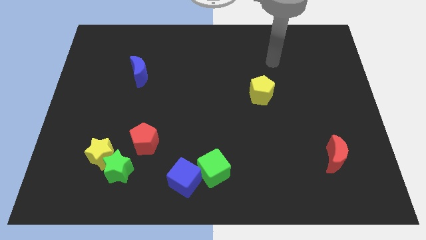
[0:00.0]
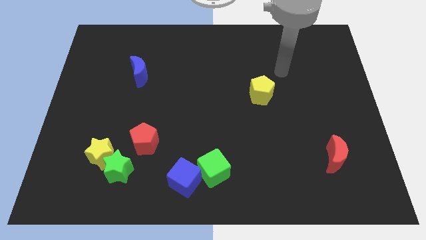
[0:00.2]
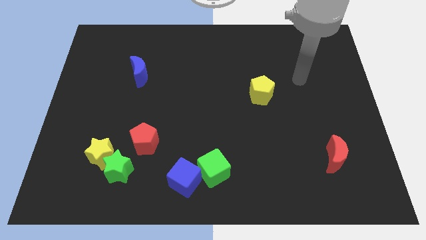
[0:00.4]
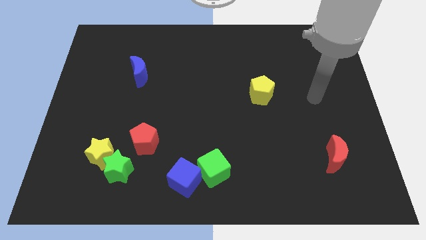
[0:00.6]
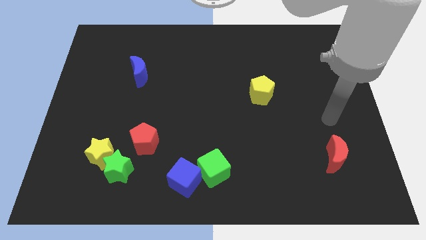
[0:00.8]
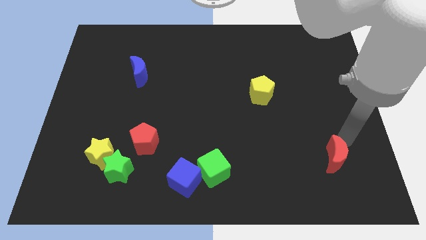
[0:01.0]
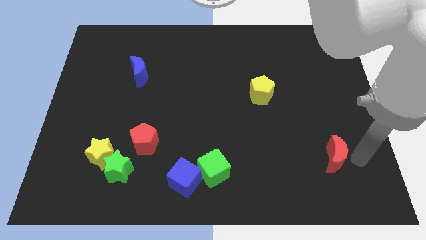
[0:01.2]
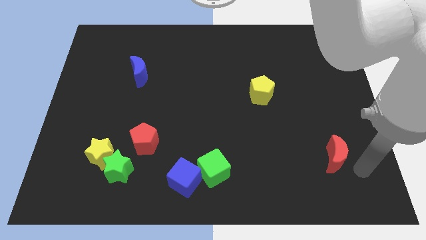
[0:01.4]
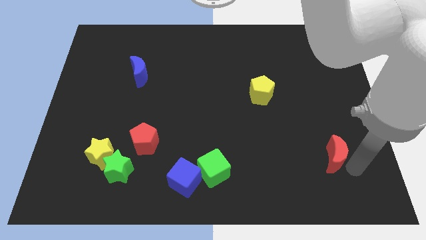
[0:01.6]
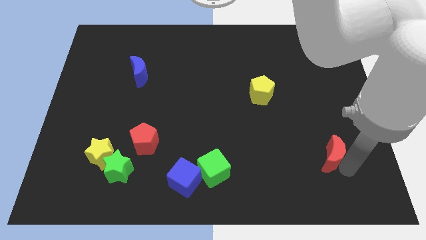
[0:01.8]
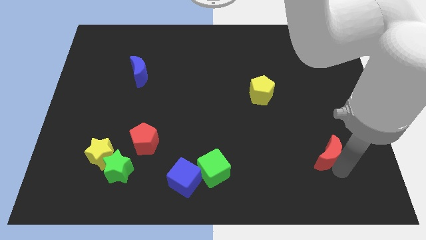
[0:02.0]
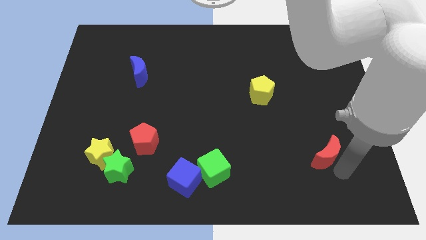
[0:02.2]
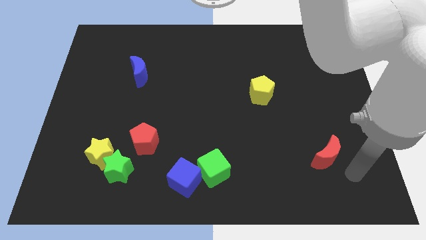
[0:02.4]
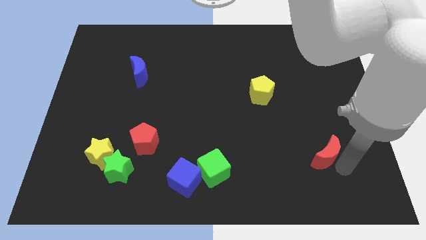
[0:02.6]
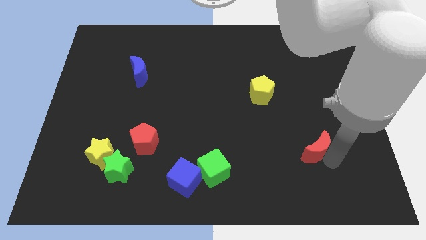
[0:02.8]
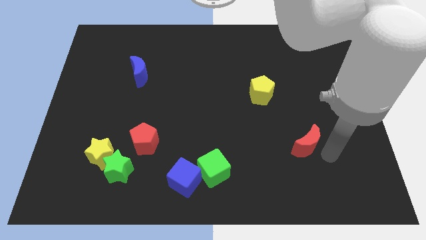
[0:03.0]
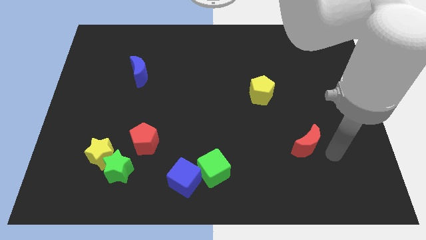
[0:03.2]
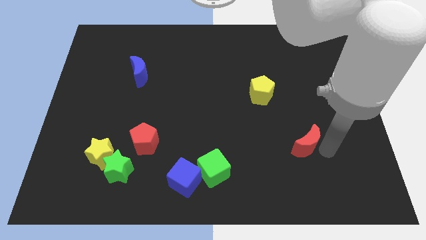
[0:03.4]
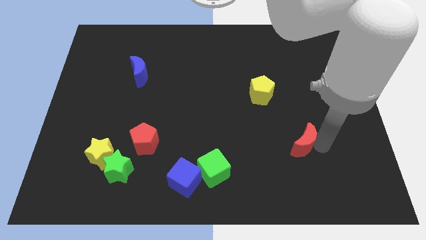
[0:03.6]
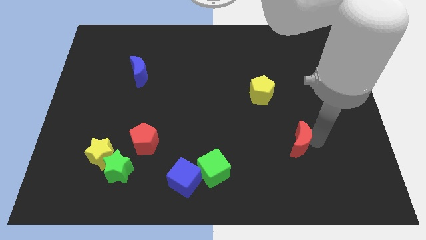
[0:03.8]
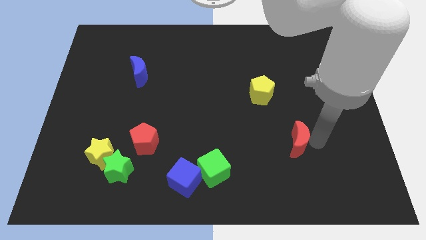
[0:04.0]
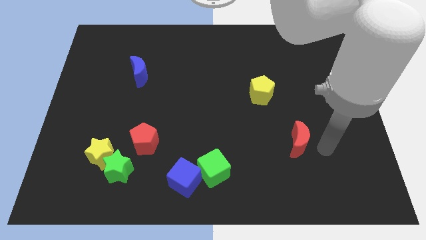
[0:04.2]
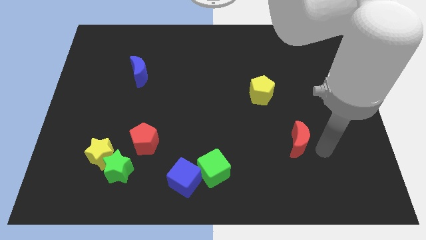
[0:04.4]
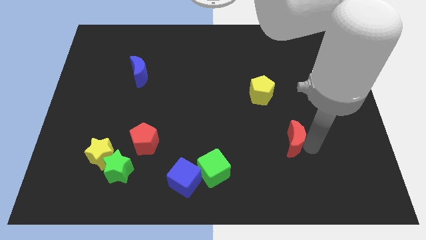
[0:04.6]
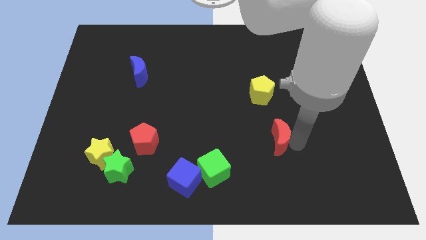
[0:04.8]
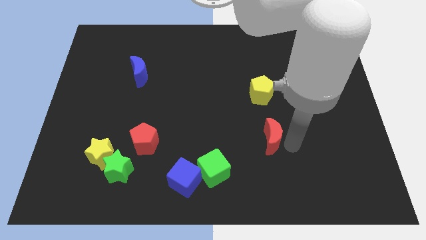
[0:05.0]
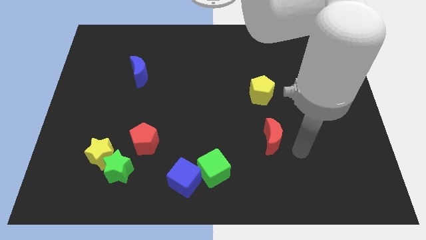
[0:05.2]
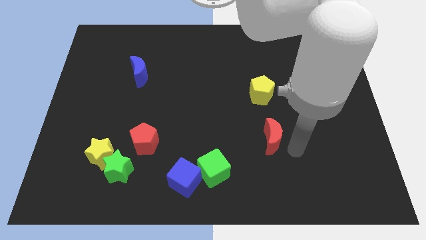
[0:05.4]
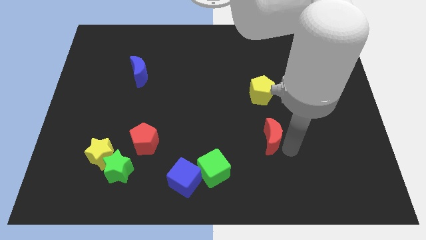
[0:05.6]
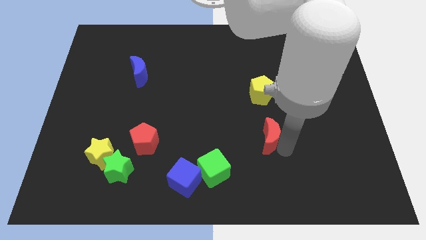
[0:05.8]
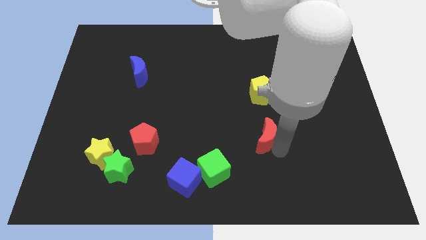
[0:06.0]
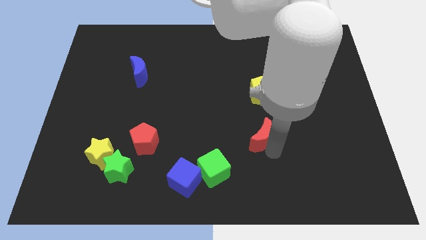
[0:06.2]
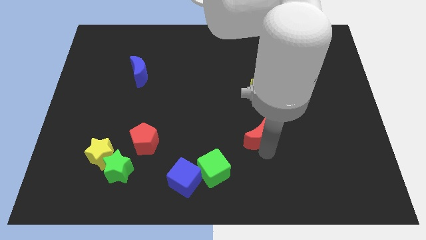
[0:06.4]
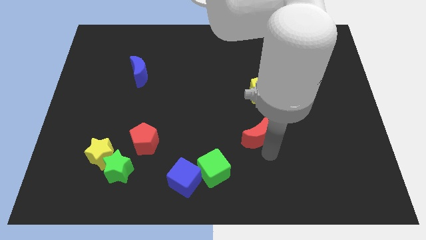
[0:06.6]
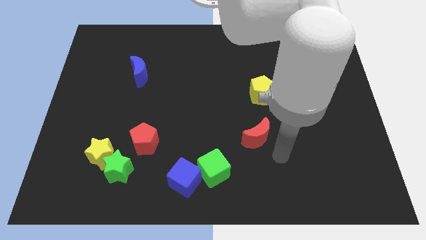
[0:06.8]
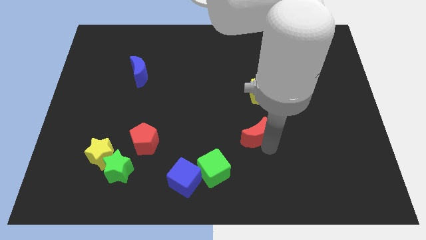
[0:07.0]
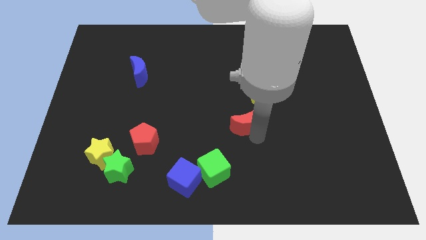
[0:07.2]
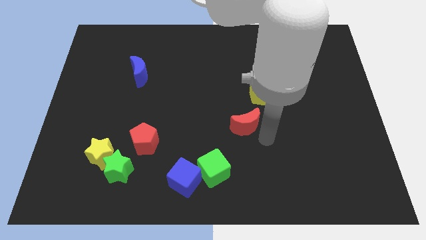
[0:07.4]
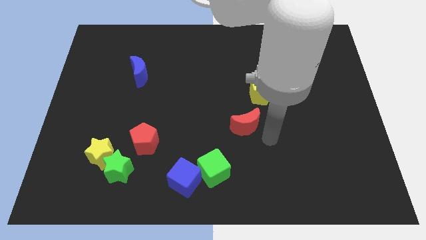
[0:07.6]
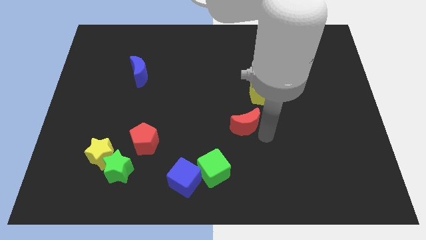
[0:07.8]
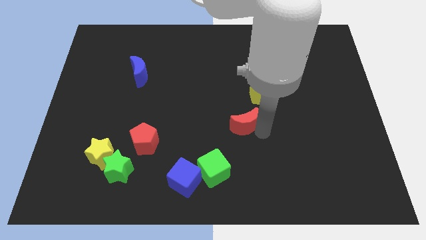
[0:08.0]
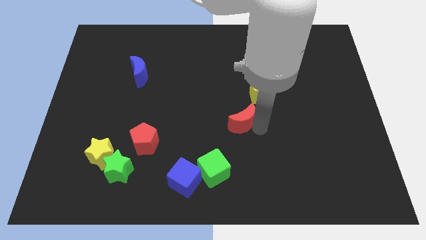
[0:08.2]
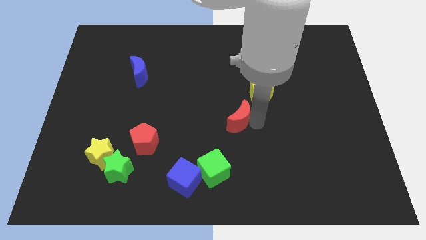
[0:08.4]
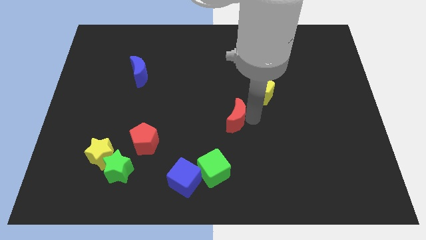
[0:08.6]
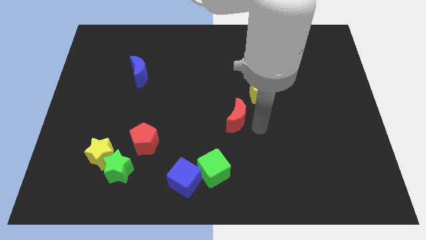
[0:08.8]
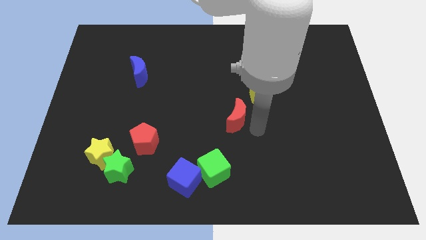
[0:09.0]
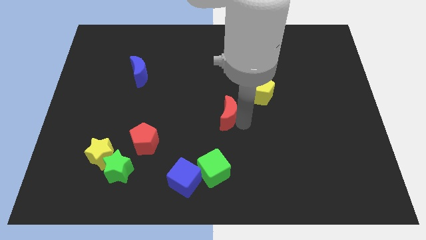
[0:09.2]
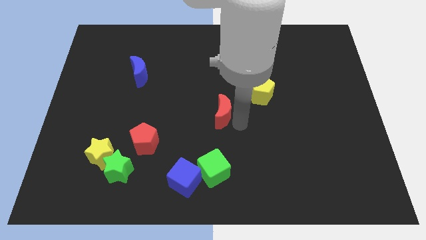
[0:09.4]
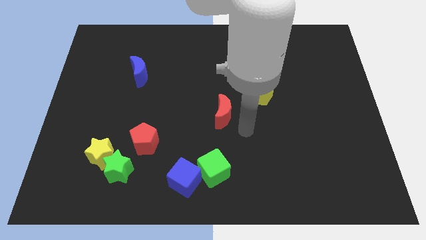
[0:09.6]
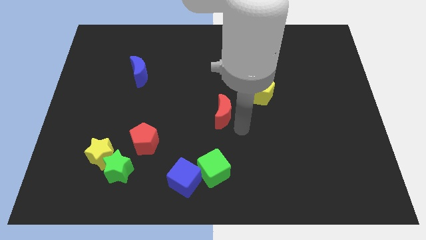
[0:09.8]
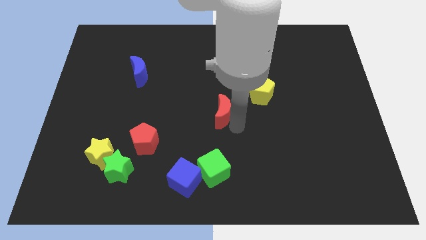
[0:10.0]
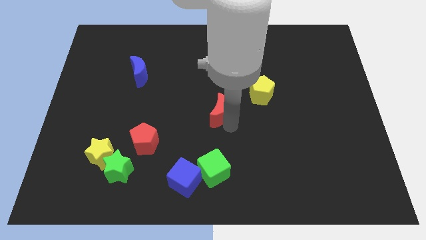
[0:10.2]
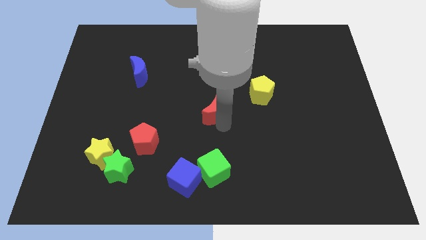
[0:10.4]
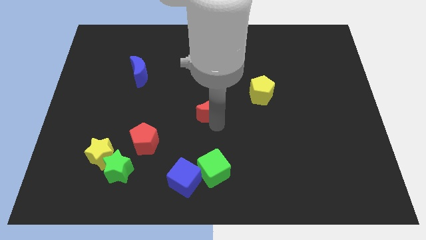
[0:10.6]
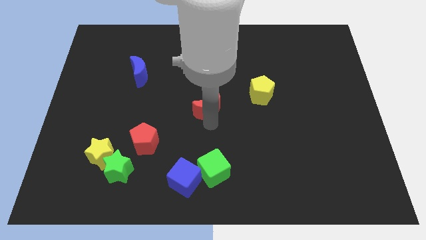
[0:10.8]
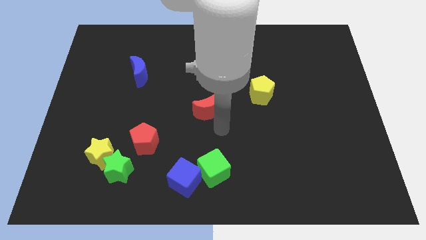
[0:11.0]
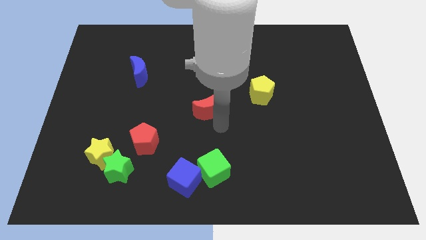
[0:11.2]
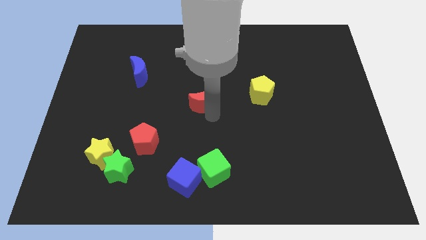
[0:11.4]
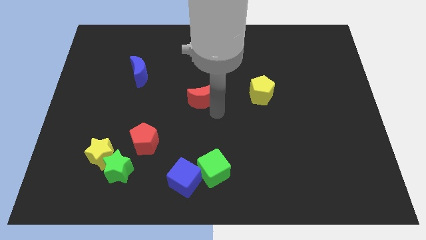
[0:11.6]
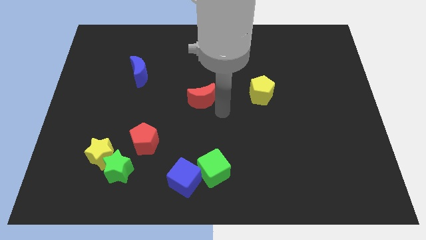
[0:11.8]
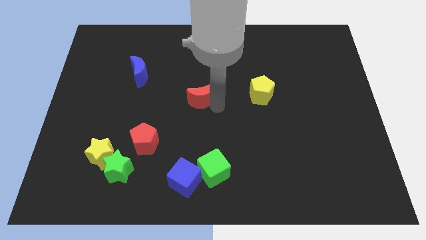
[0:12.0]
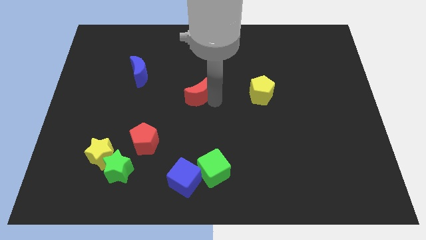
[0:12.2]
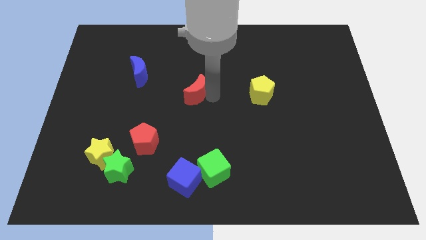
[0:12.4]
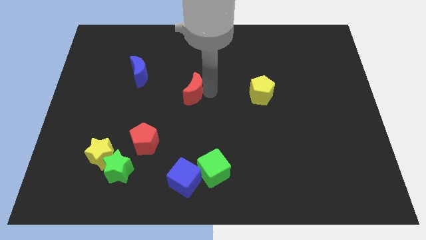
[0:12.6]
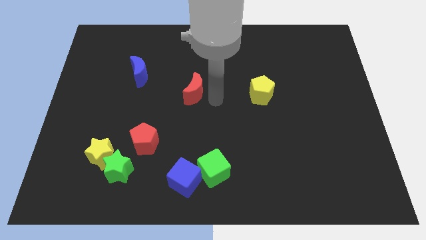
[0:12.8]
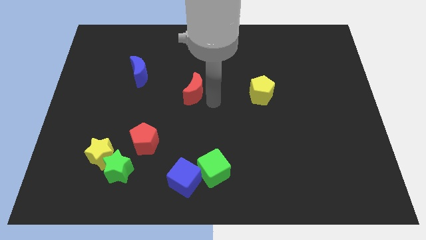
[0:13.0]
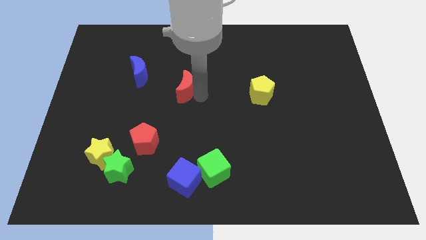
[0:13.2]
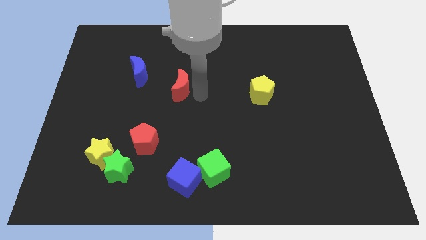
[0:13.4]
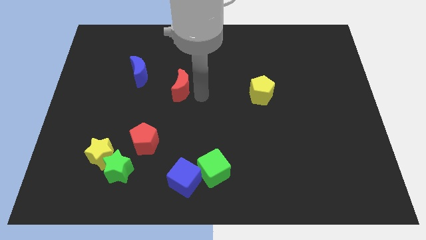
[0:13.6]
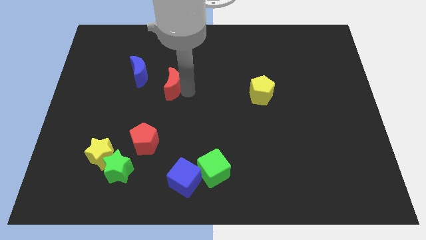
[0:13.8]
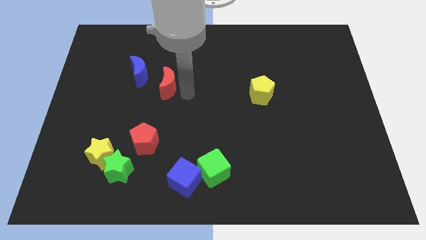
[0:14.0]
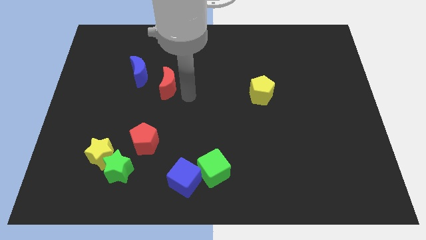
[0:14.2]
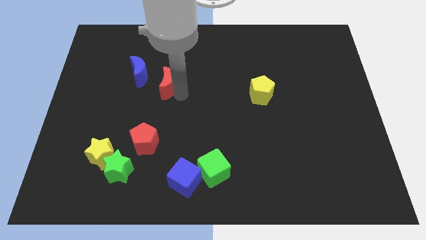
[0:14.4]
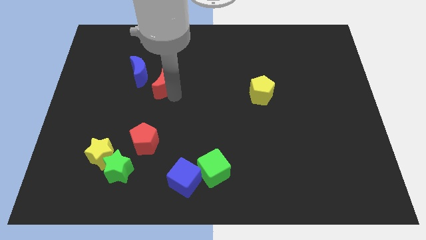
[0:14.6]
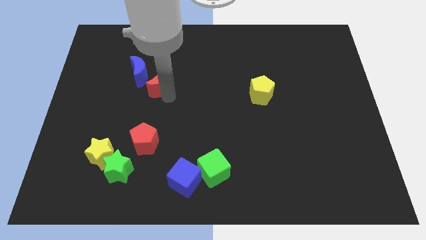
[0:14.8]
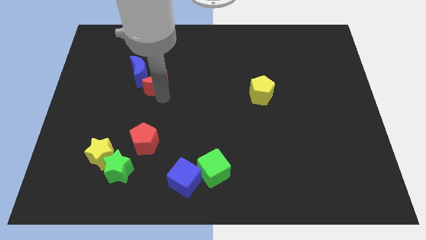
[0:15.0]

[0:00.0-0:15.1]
push the red moon to the blue moon
